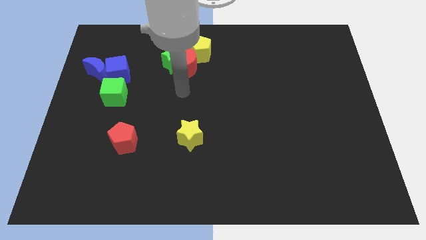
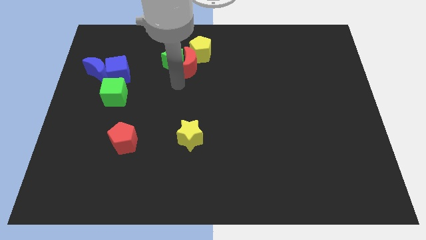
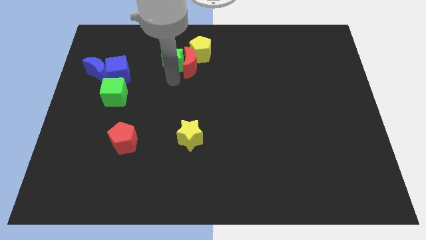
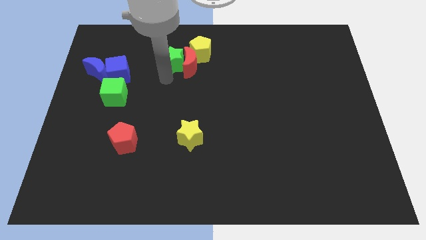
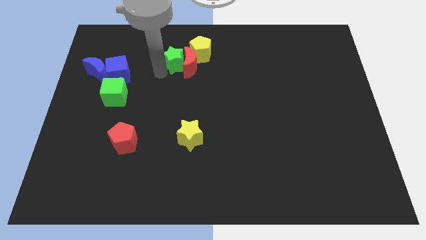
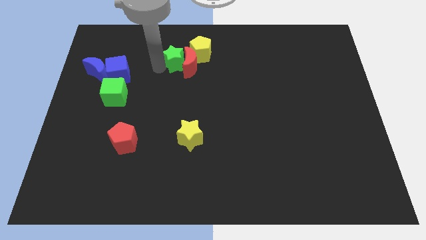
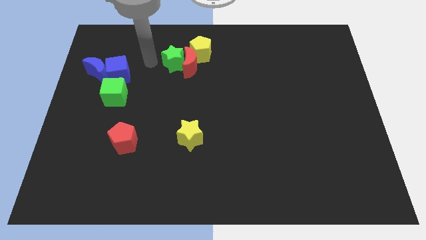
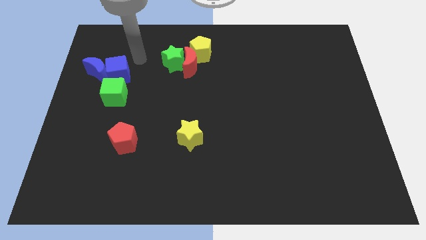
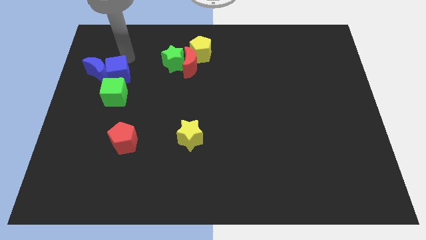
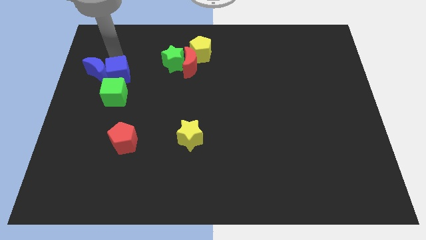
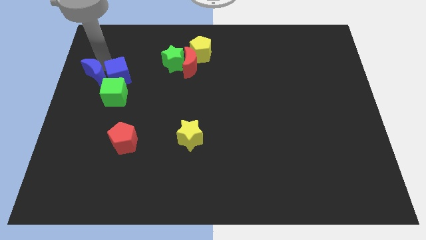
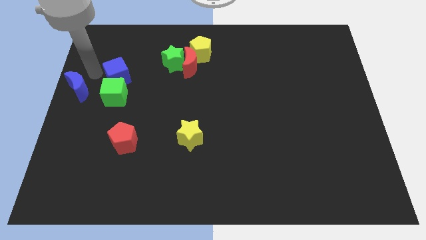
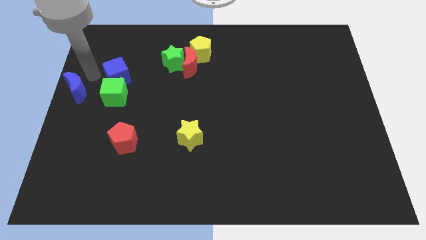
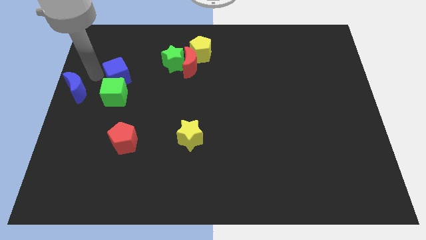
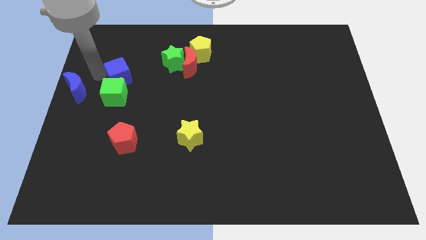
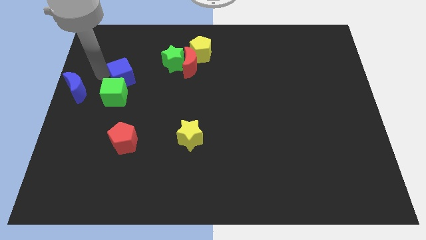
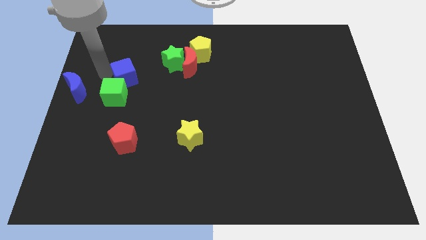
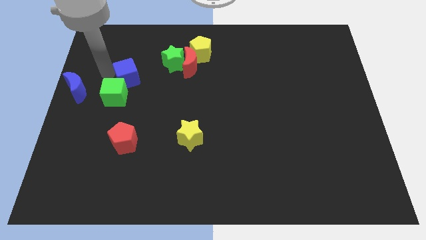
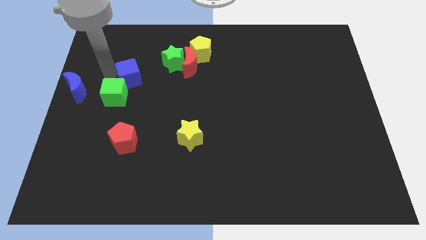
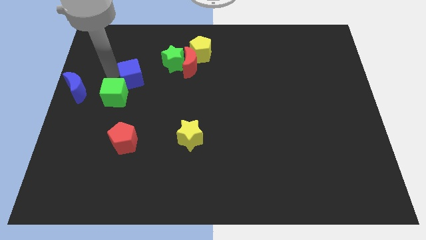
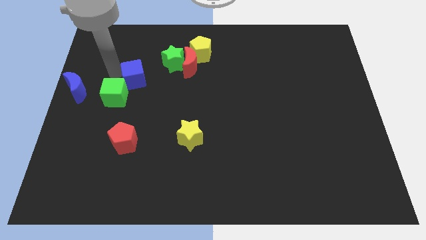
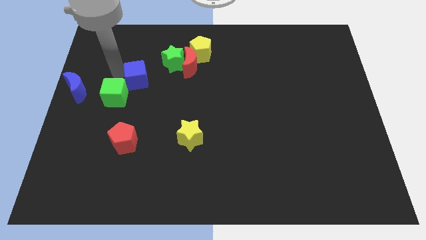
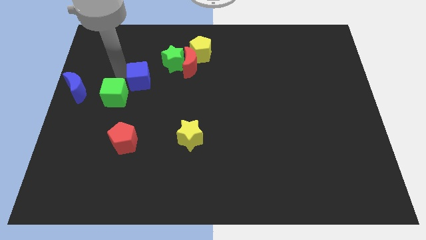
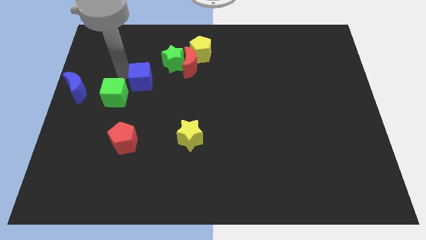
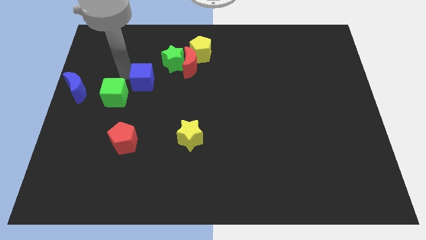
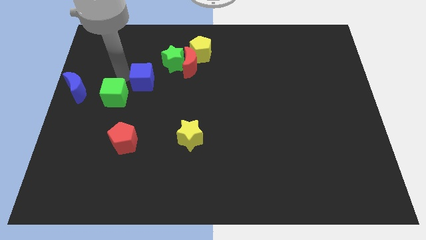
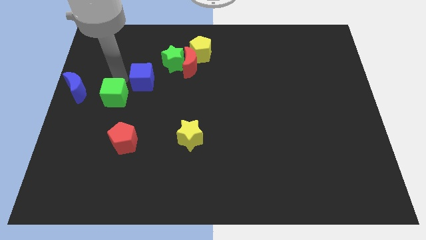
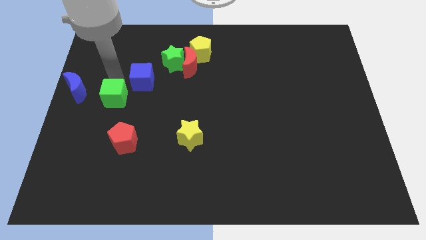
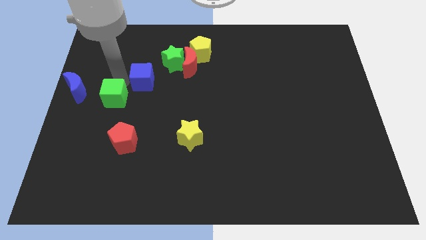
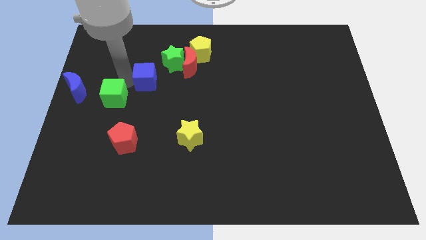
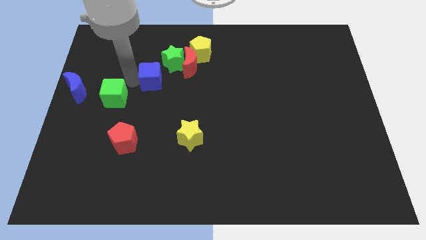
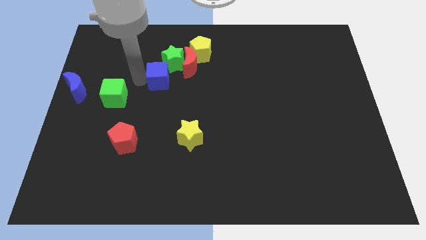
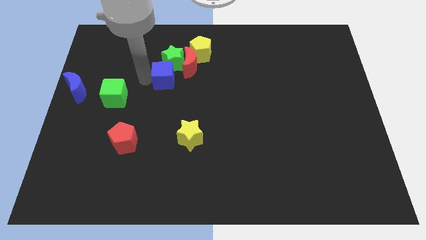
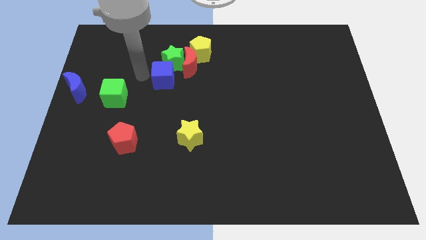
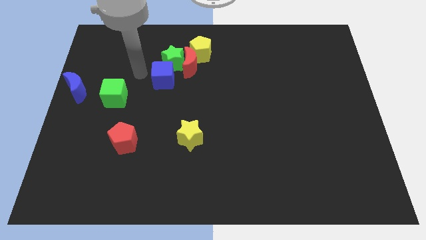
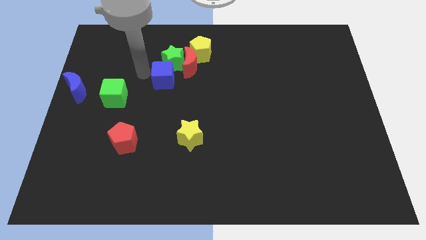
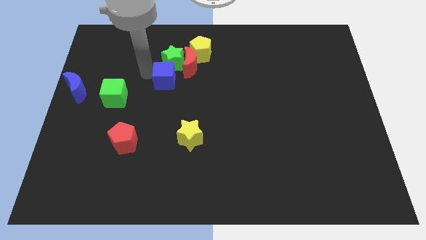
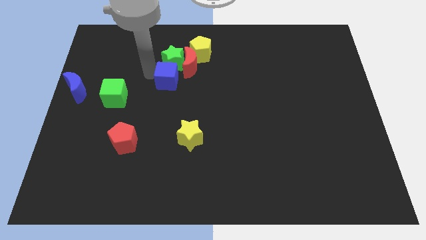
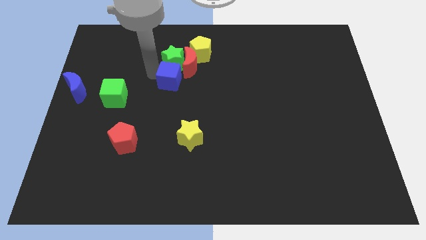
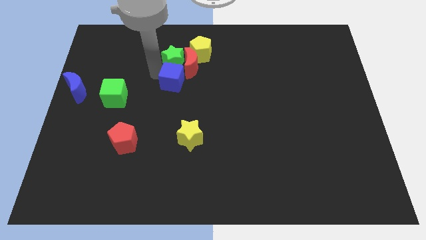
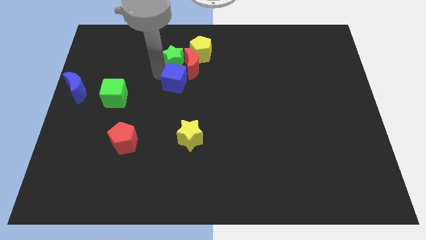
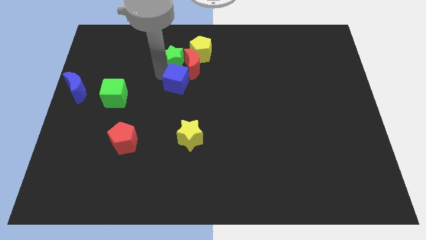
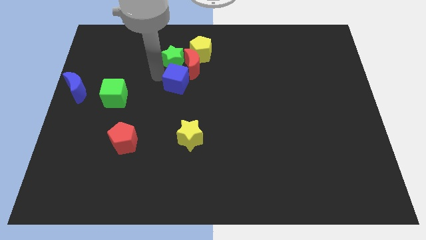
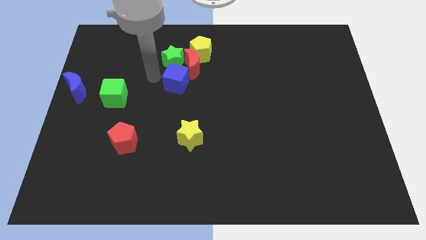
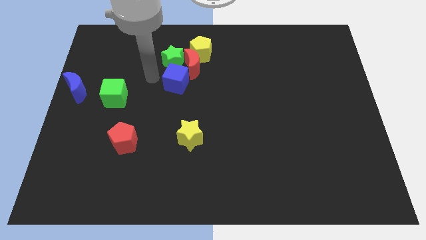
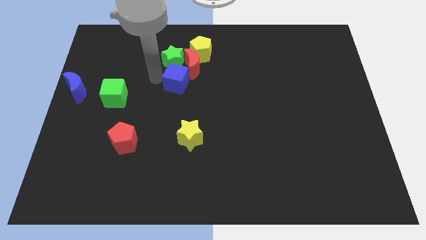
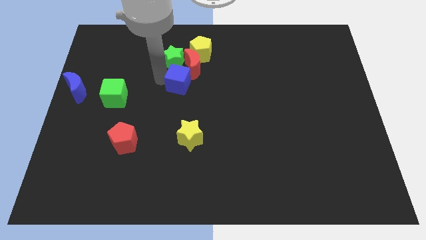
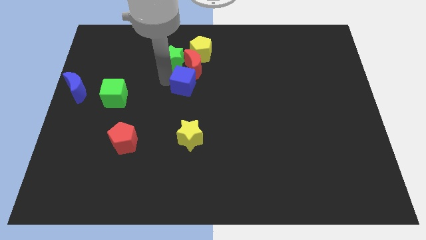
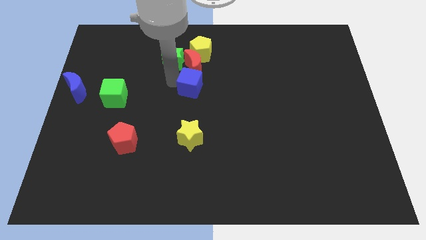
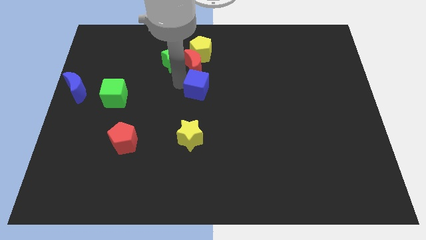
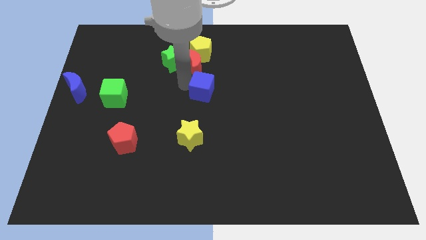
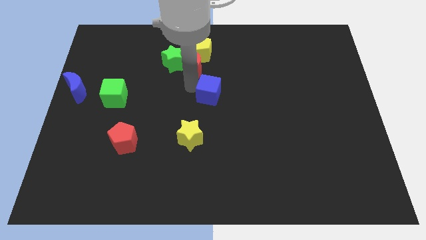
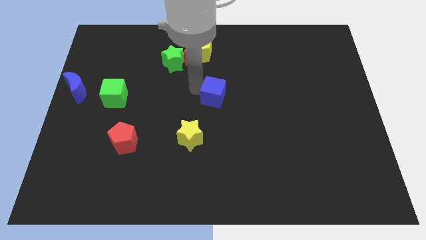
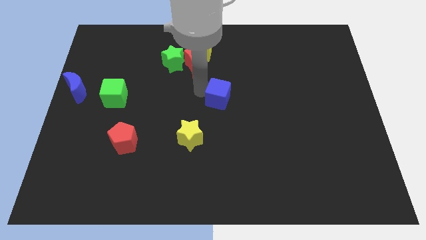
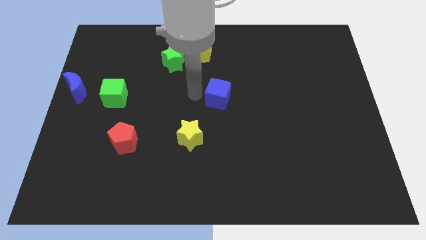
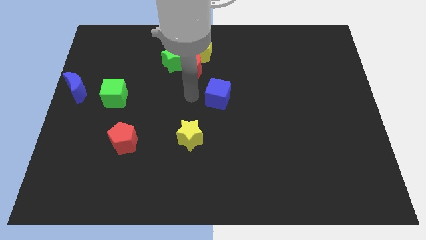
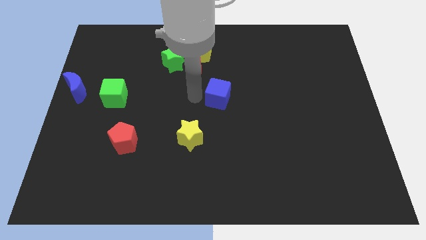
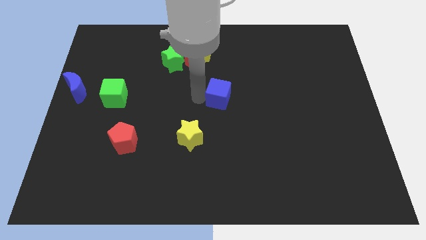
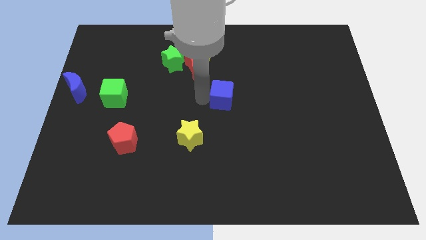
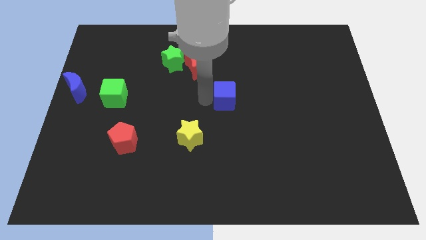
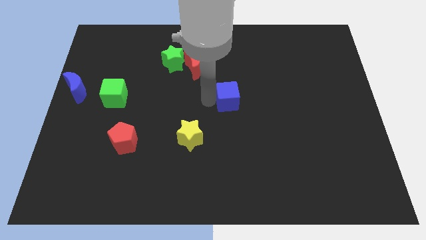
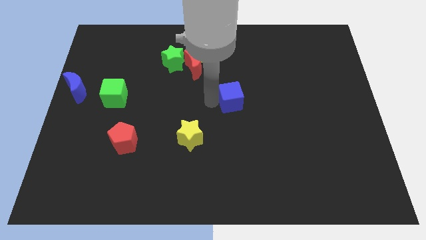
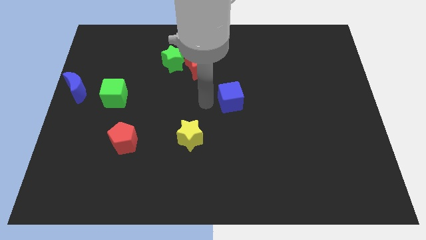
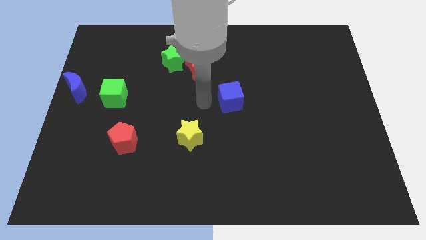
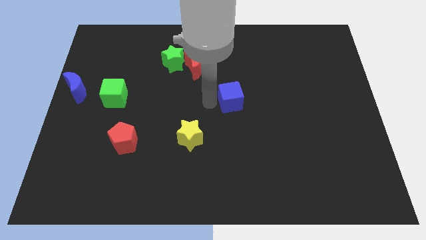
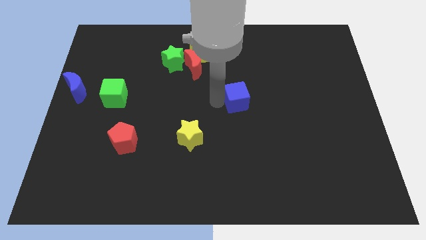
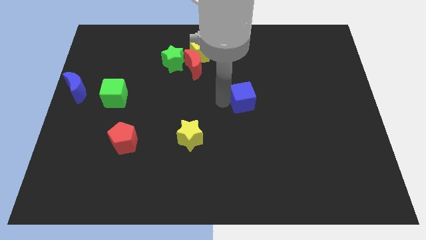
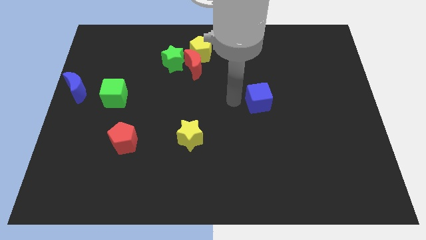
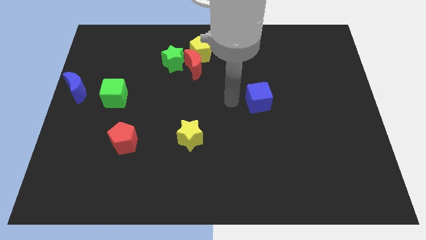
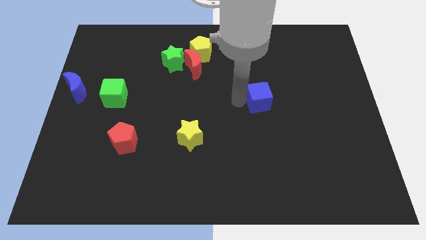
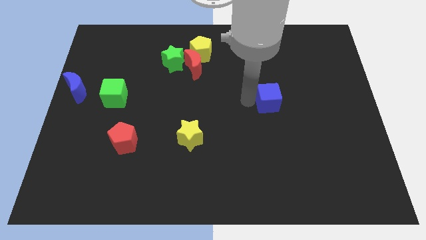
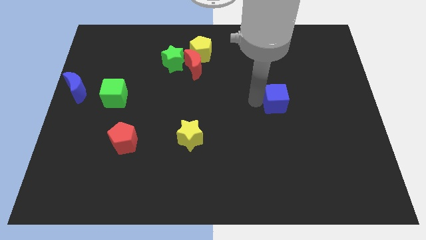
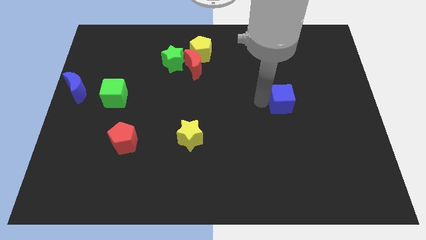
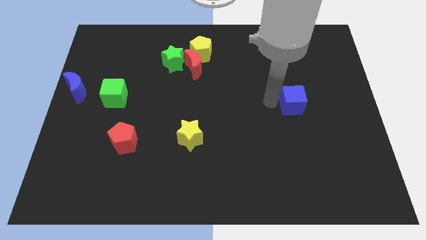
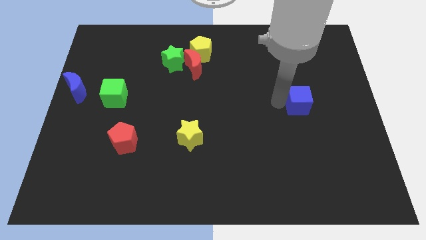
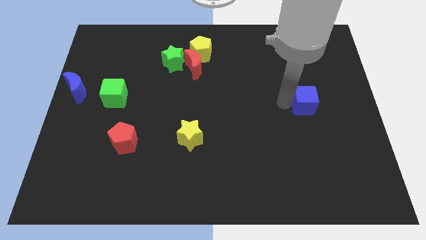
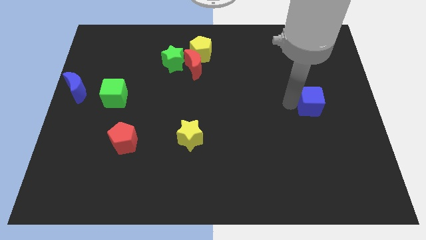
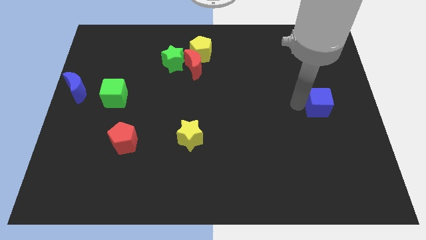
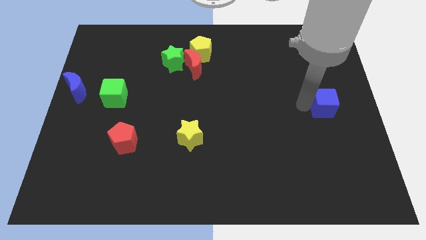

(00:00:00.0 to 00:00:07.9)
move the blue cube to the right side
